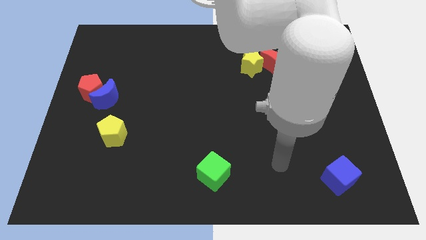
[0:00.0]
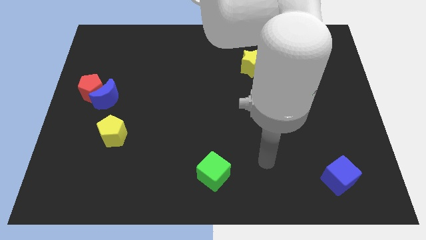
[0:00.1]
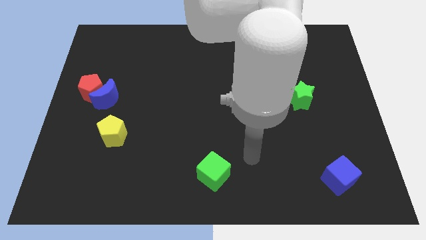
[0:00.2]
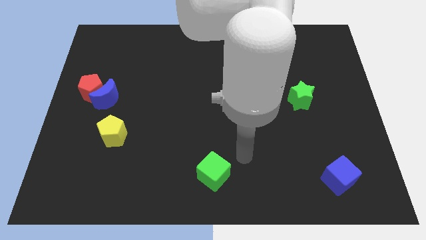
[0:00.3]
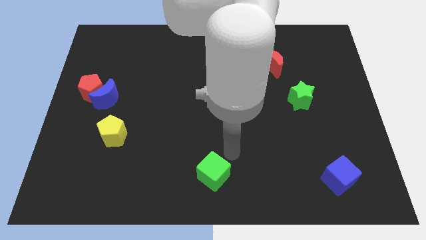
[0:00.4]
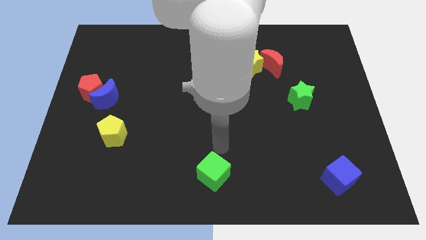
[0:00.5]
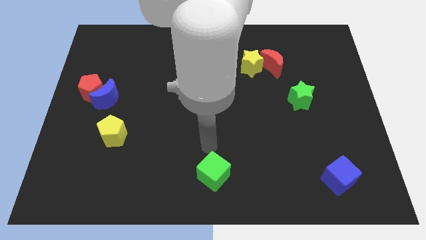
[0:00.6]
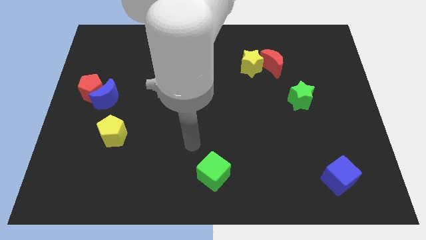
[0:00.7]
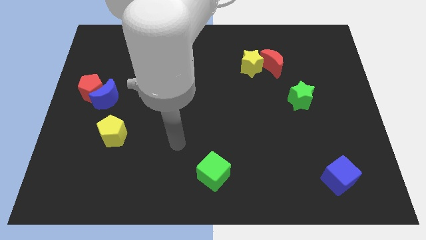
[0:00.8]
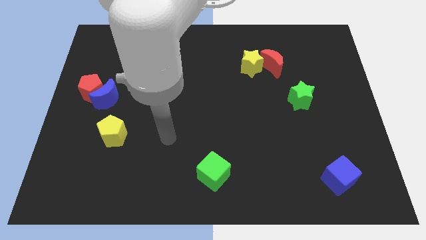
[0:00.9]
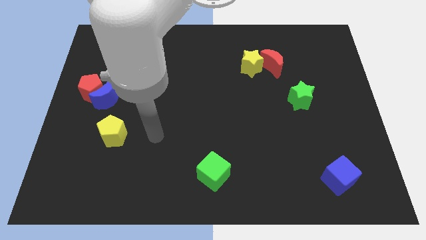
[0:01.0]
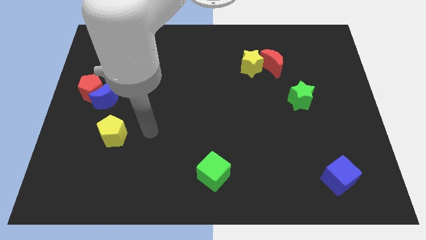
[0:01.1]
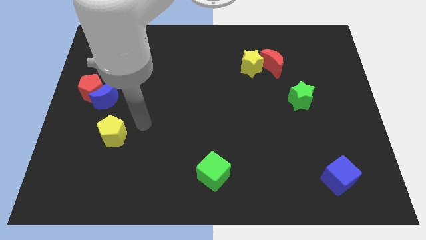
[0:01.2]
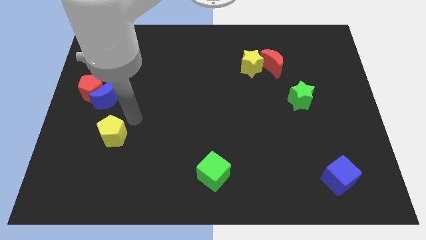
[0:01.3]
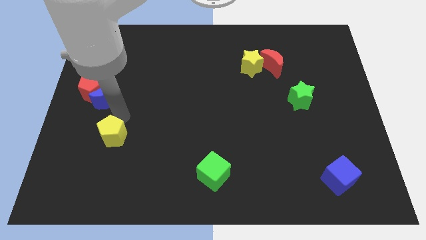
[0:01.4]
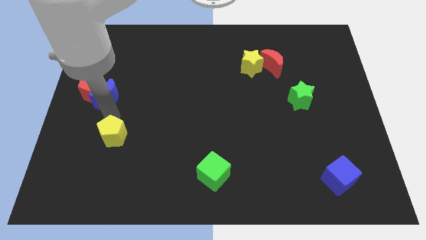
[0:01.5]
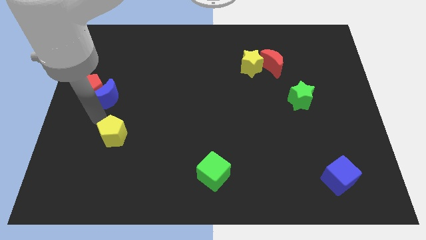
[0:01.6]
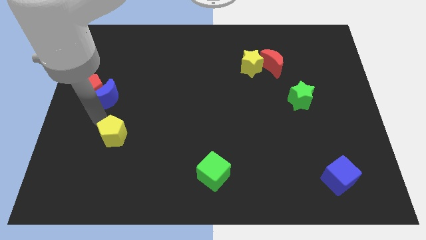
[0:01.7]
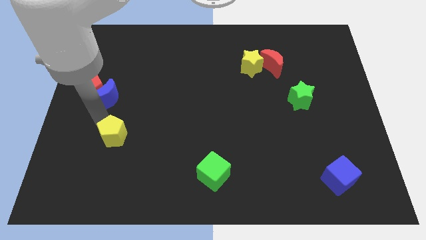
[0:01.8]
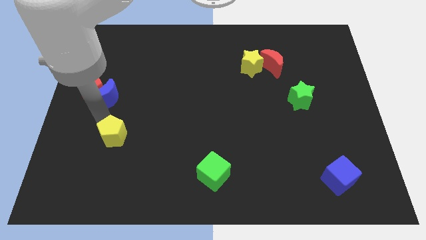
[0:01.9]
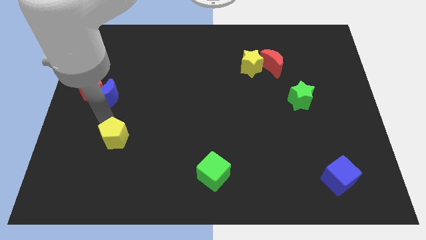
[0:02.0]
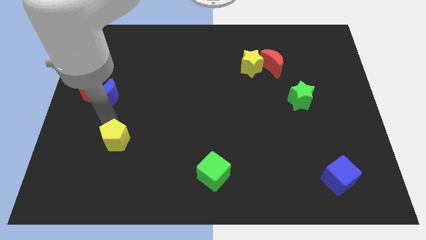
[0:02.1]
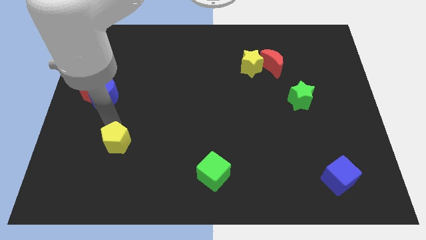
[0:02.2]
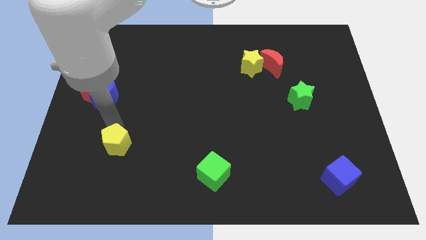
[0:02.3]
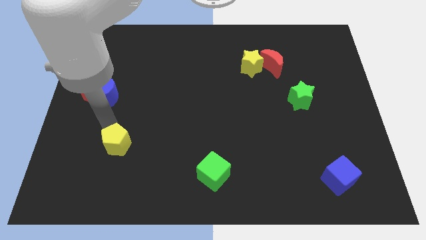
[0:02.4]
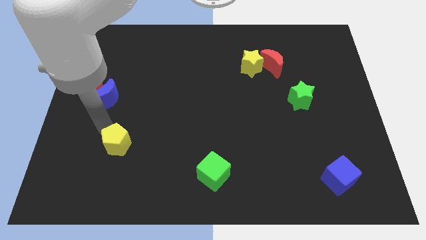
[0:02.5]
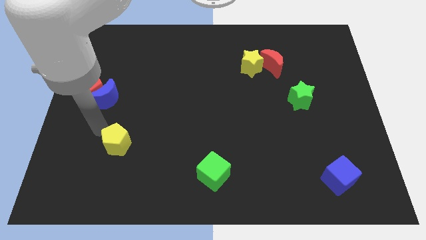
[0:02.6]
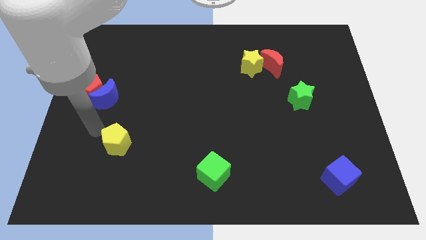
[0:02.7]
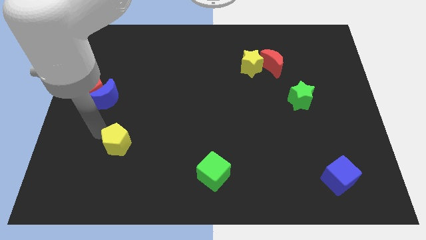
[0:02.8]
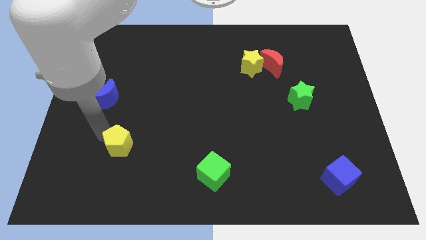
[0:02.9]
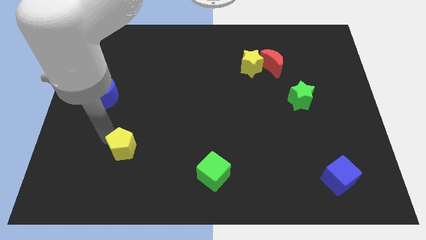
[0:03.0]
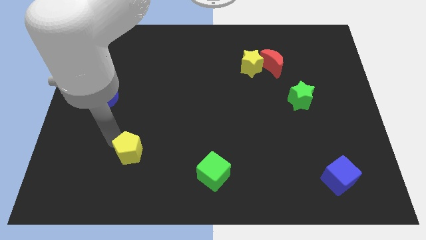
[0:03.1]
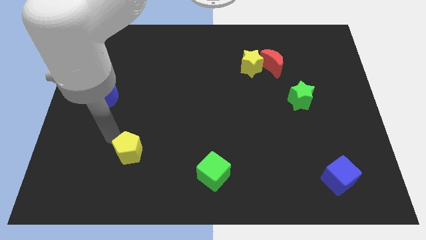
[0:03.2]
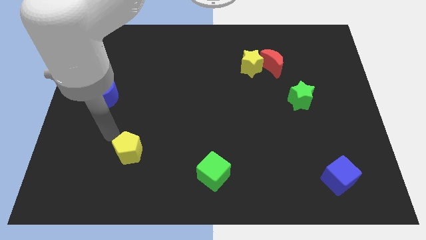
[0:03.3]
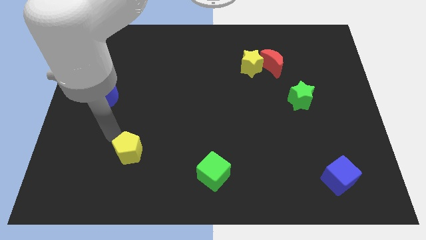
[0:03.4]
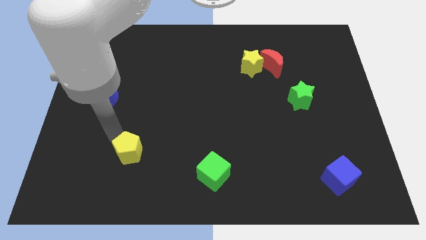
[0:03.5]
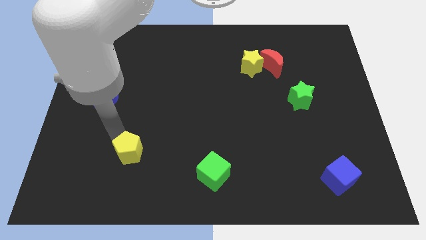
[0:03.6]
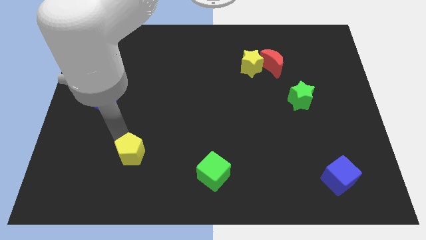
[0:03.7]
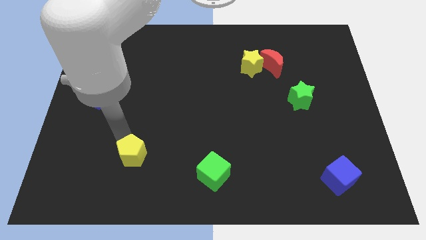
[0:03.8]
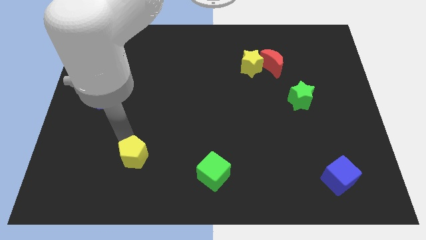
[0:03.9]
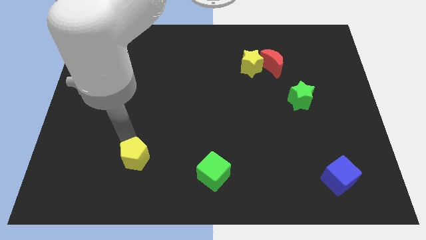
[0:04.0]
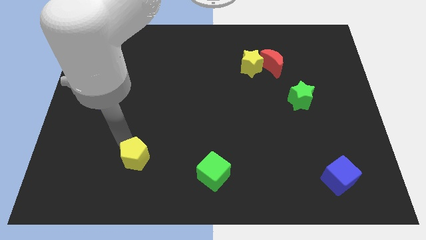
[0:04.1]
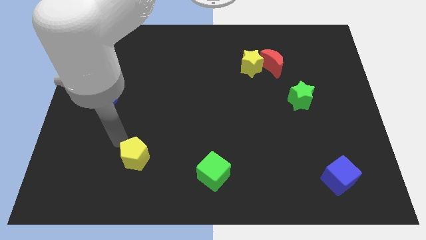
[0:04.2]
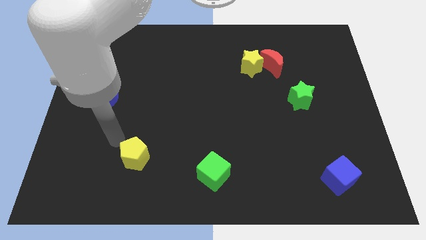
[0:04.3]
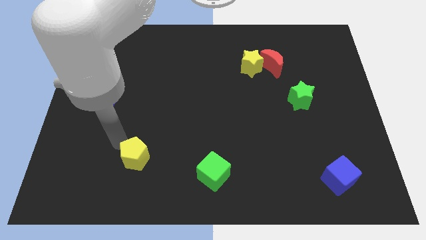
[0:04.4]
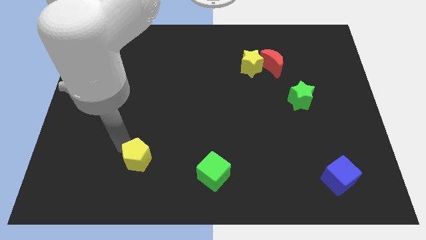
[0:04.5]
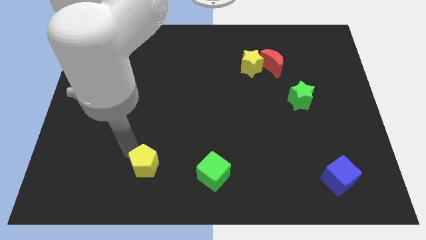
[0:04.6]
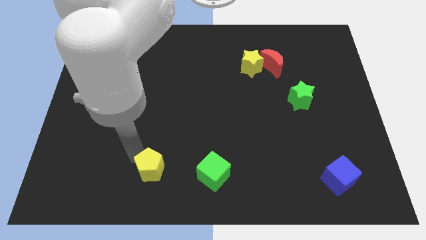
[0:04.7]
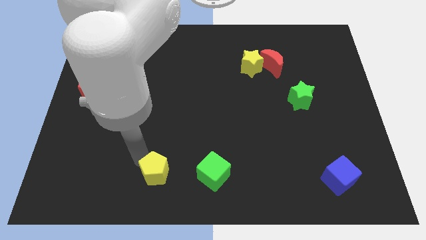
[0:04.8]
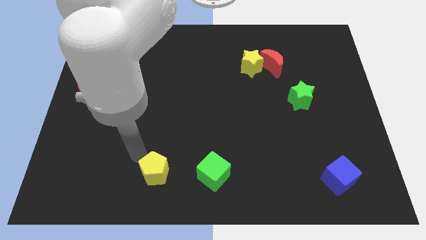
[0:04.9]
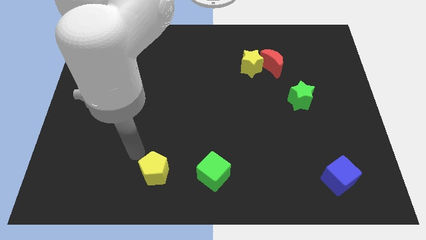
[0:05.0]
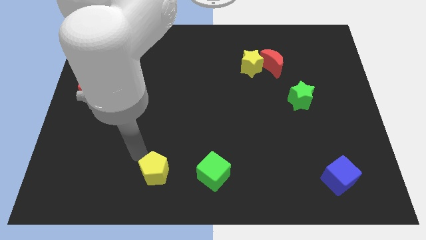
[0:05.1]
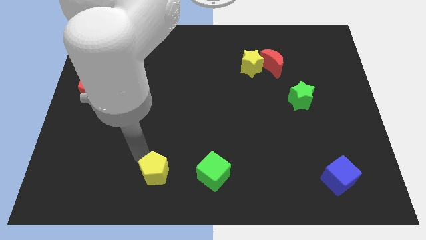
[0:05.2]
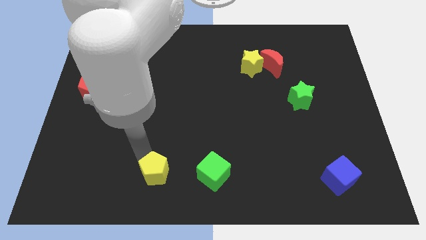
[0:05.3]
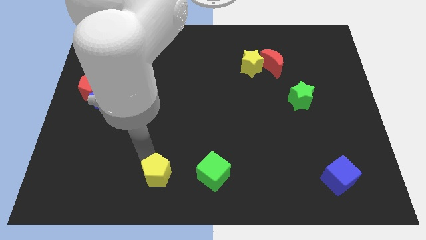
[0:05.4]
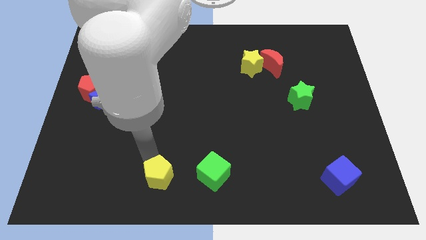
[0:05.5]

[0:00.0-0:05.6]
slide the yellow pentagon to the bottom

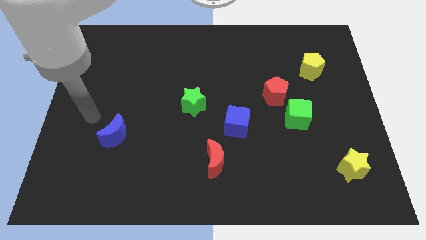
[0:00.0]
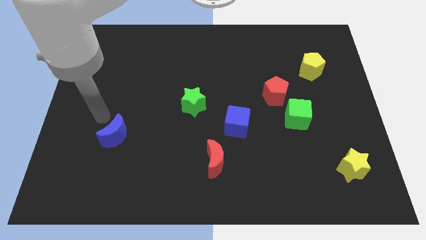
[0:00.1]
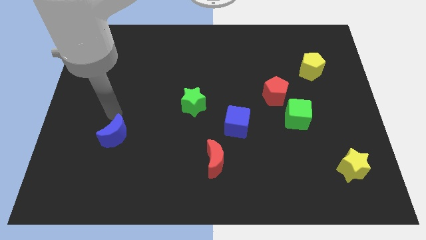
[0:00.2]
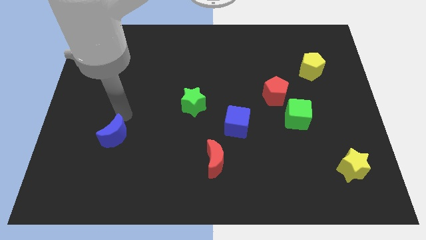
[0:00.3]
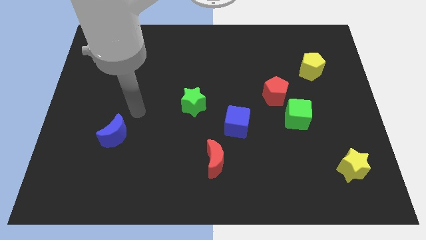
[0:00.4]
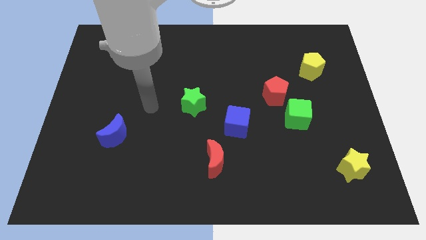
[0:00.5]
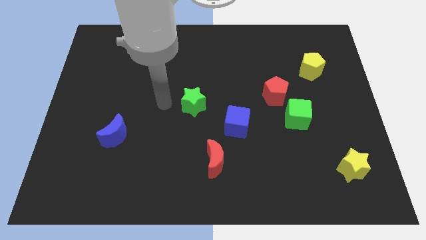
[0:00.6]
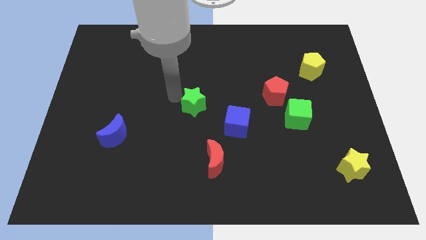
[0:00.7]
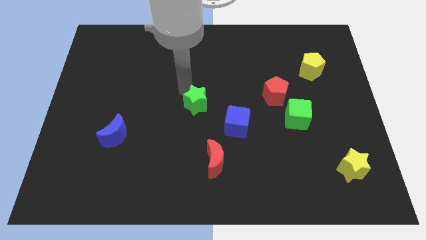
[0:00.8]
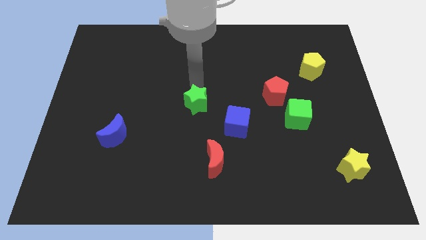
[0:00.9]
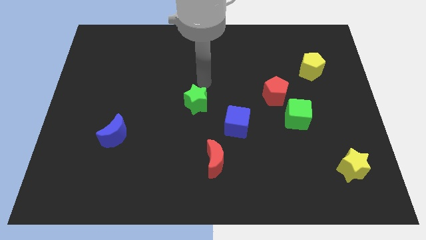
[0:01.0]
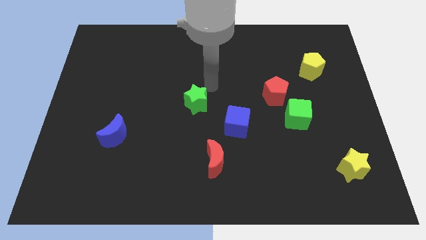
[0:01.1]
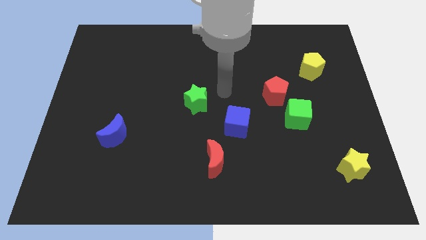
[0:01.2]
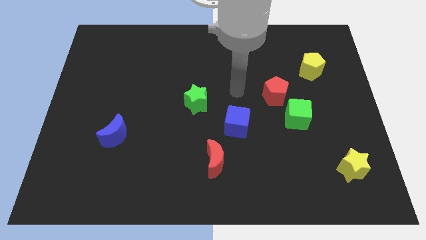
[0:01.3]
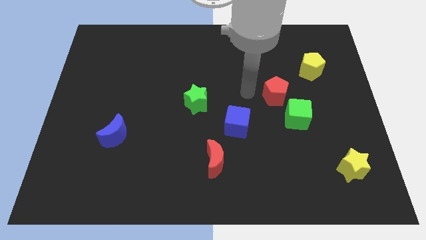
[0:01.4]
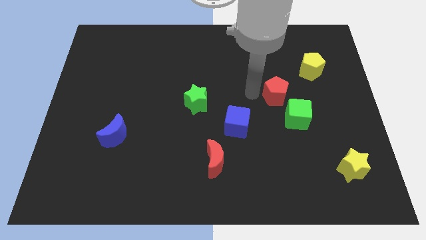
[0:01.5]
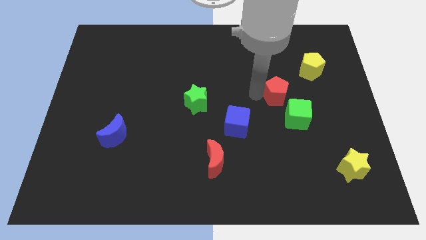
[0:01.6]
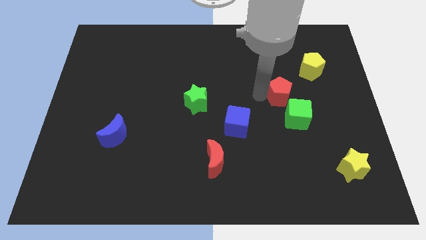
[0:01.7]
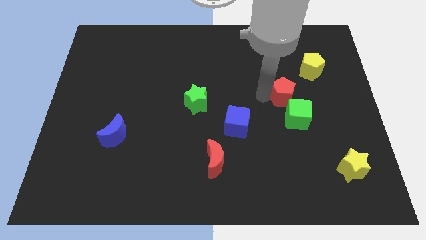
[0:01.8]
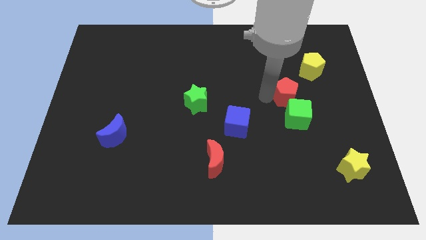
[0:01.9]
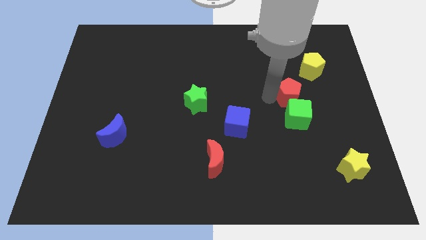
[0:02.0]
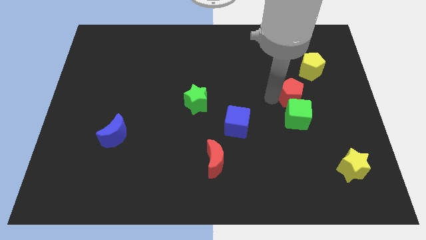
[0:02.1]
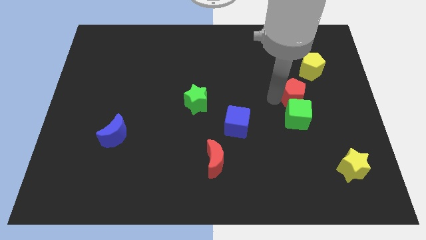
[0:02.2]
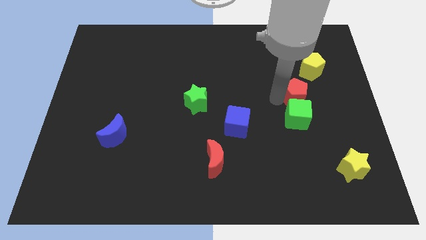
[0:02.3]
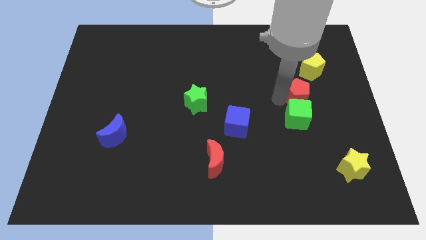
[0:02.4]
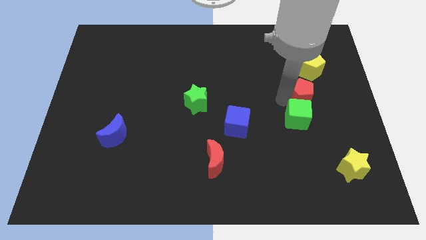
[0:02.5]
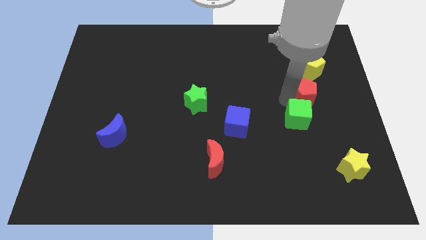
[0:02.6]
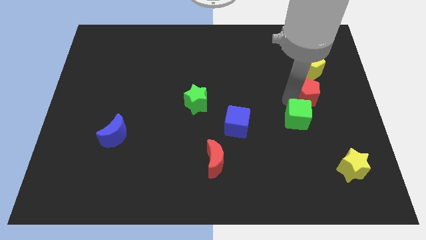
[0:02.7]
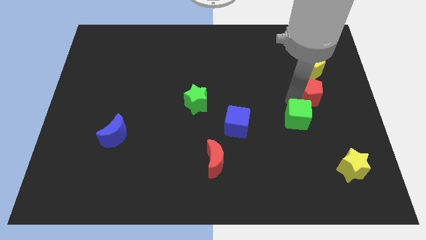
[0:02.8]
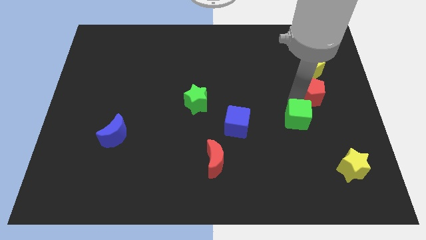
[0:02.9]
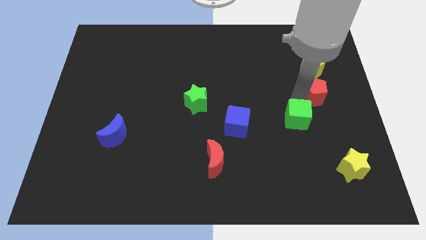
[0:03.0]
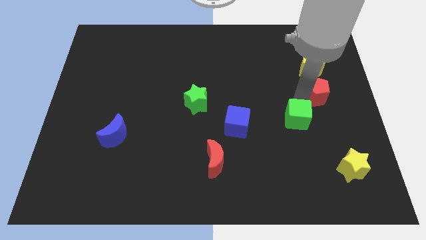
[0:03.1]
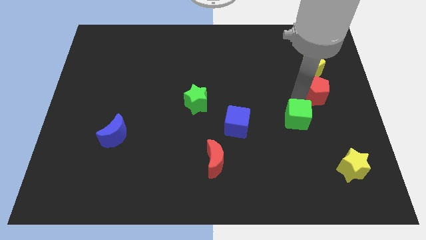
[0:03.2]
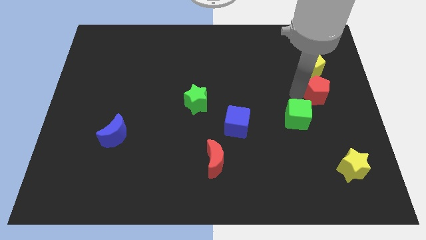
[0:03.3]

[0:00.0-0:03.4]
slide the red pentagon to the center right
